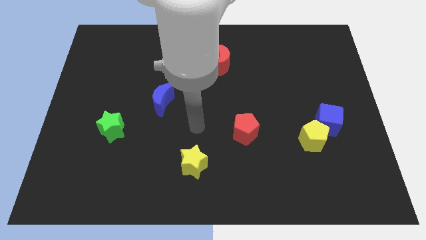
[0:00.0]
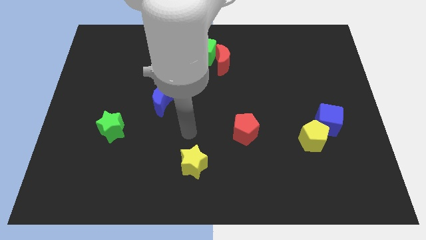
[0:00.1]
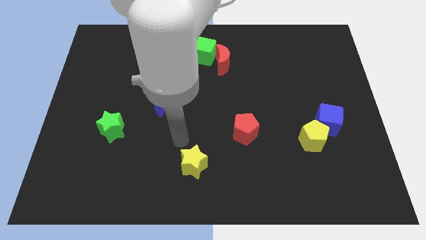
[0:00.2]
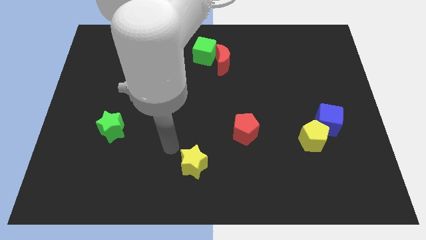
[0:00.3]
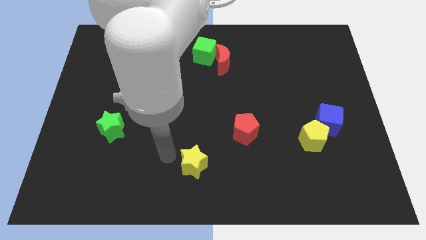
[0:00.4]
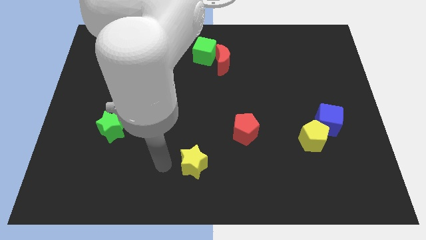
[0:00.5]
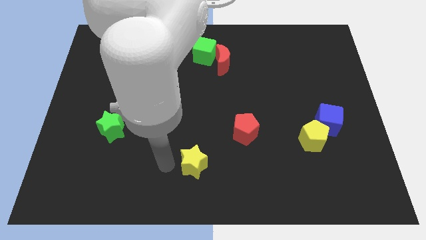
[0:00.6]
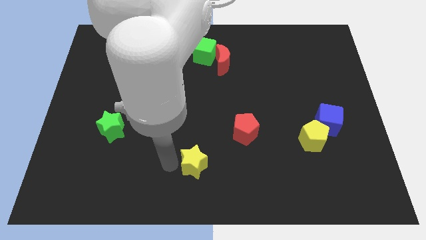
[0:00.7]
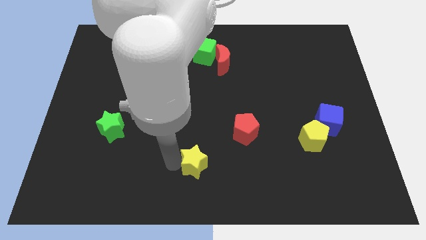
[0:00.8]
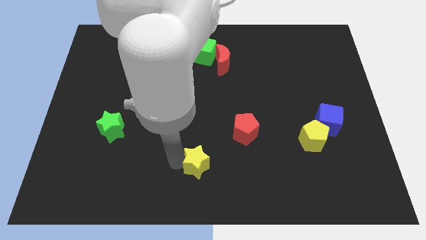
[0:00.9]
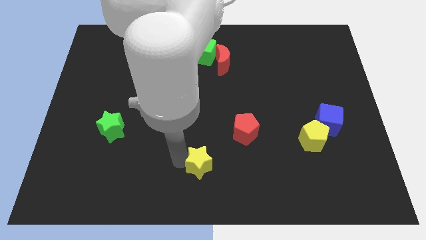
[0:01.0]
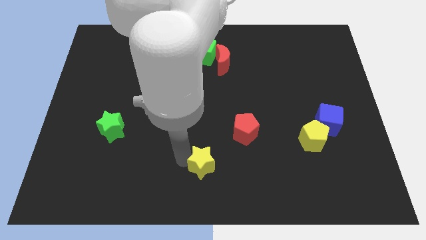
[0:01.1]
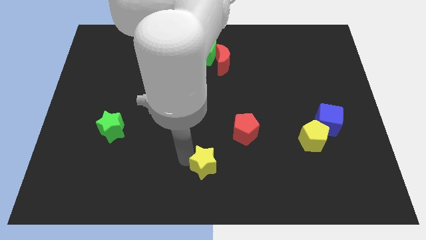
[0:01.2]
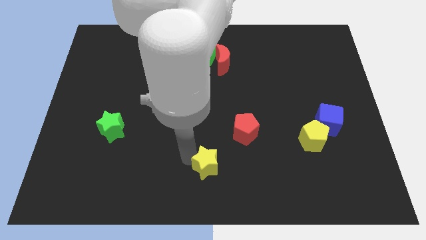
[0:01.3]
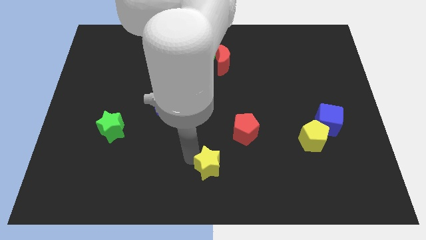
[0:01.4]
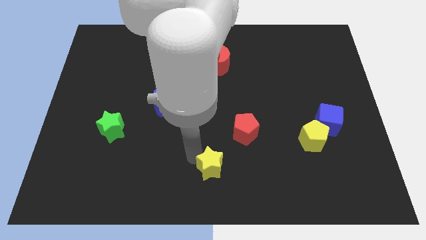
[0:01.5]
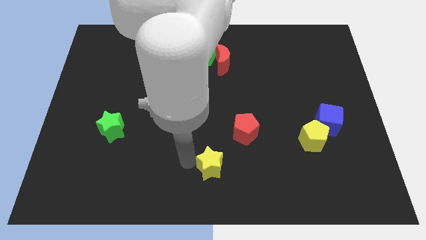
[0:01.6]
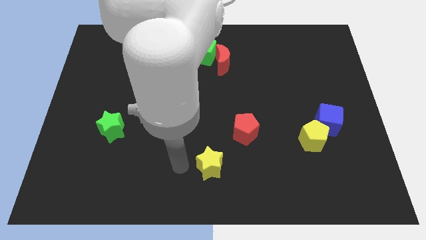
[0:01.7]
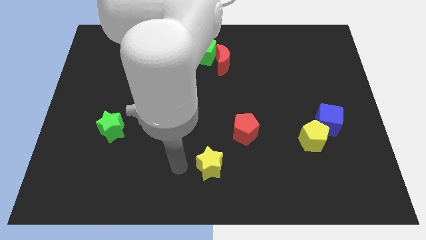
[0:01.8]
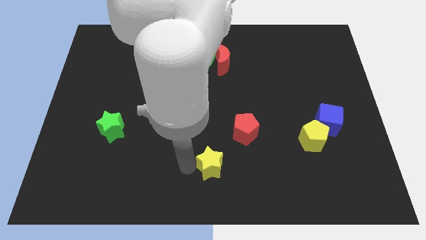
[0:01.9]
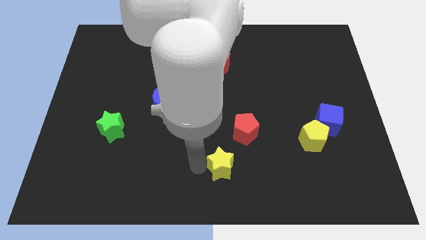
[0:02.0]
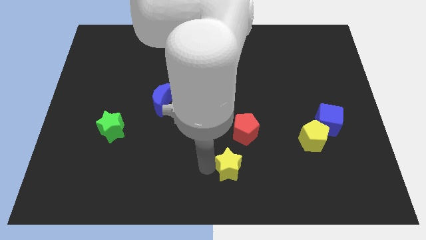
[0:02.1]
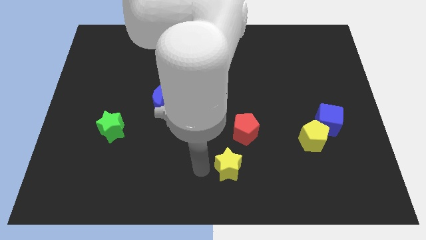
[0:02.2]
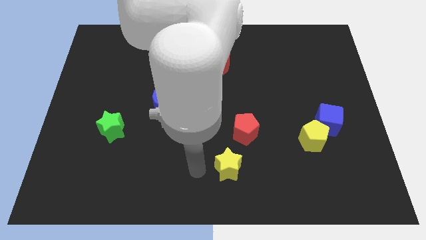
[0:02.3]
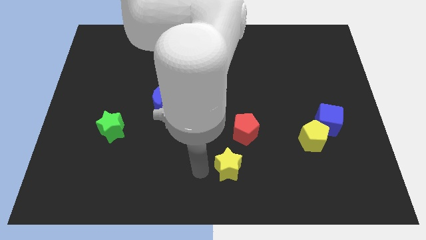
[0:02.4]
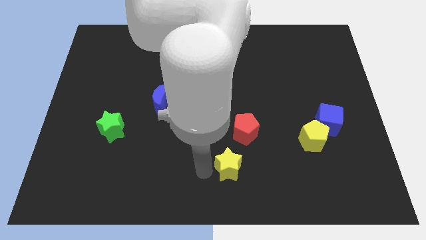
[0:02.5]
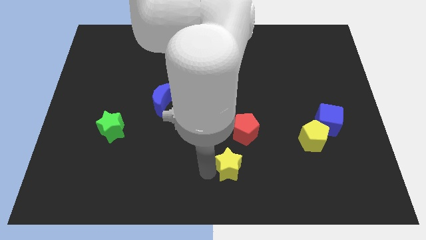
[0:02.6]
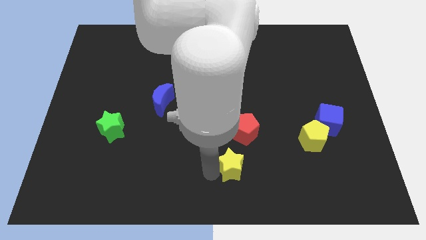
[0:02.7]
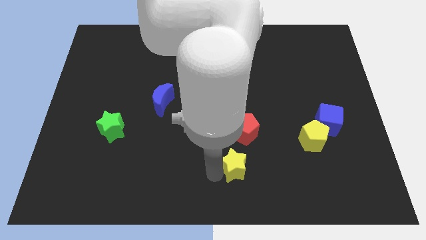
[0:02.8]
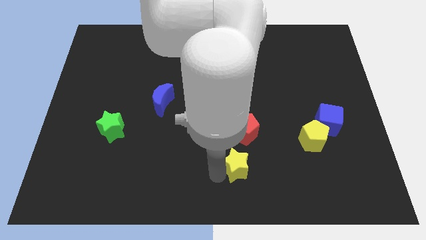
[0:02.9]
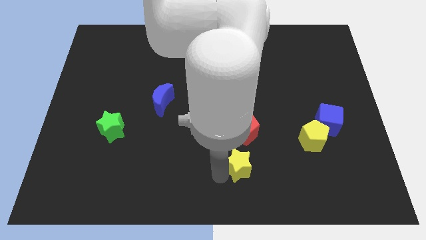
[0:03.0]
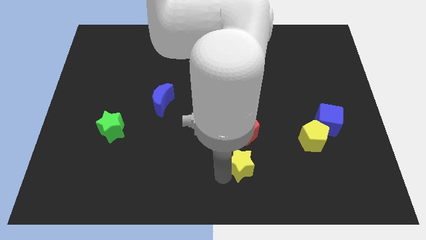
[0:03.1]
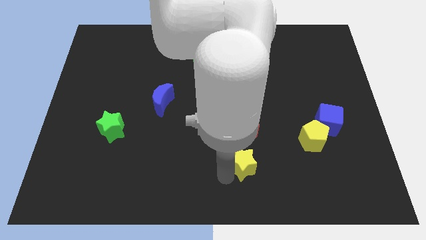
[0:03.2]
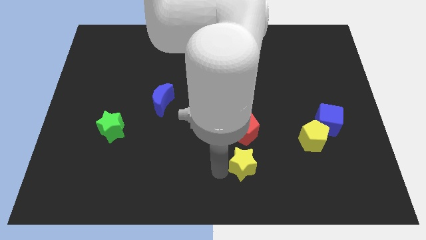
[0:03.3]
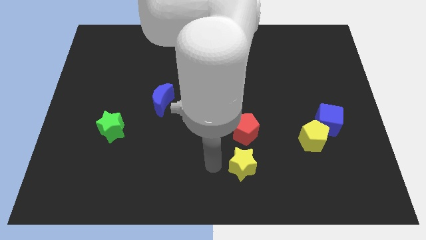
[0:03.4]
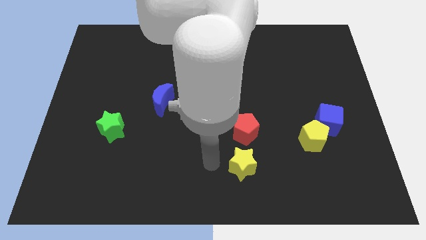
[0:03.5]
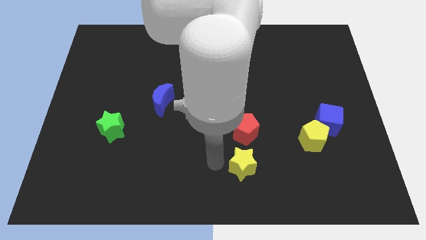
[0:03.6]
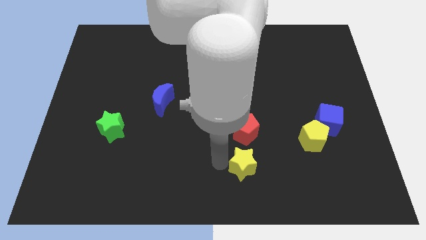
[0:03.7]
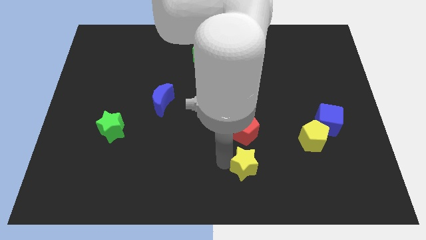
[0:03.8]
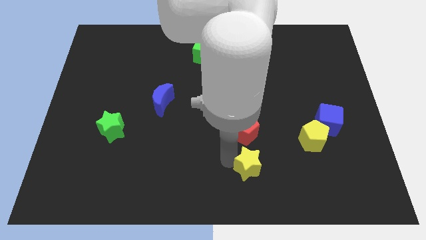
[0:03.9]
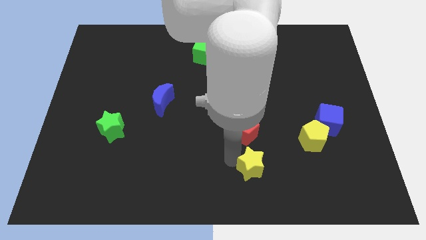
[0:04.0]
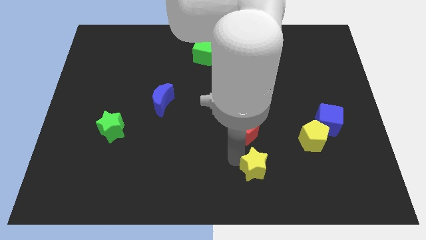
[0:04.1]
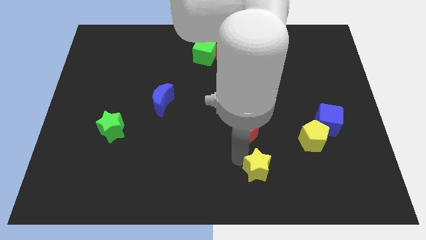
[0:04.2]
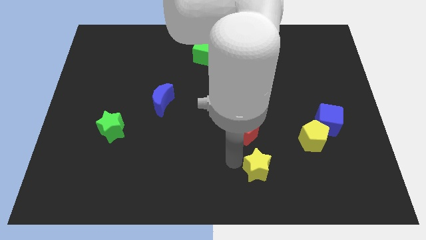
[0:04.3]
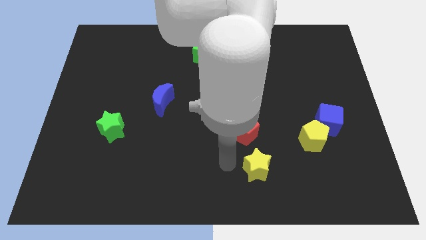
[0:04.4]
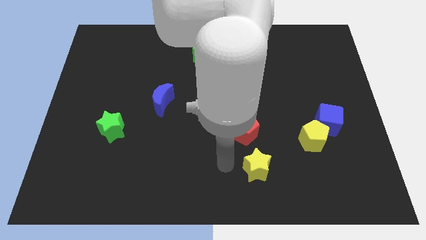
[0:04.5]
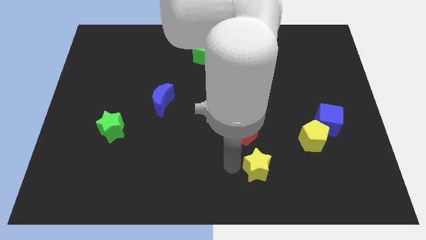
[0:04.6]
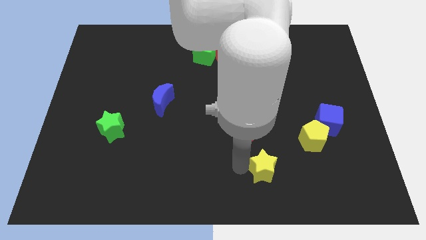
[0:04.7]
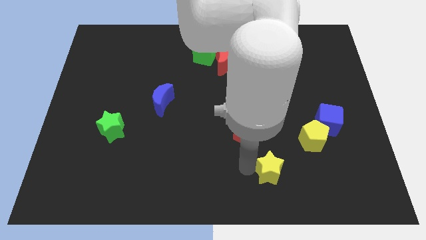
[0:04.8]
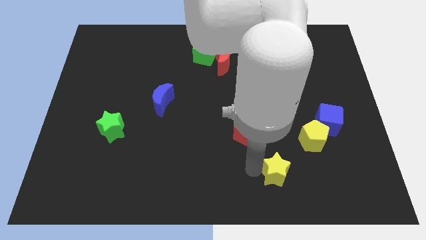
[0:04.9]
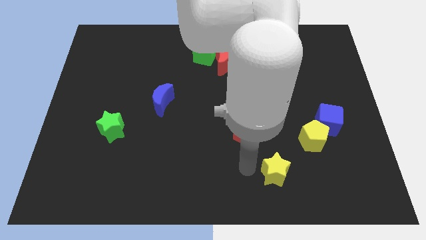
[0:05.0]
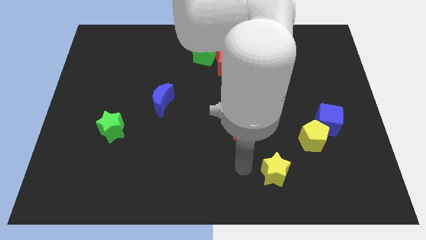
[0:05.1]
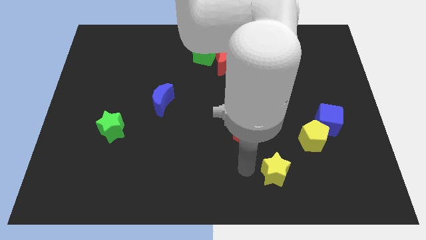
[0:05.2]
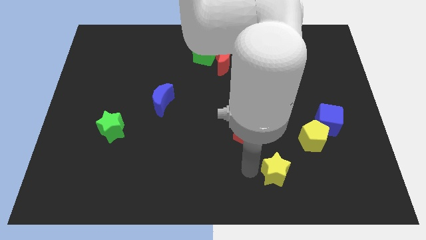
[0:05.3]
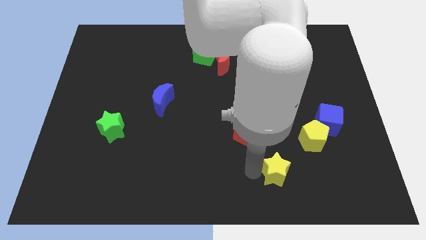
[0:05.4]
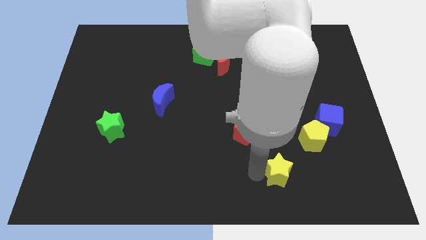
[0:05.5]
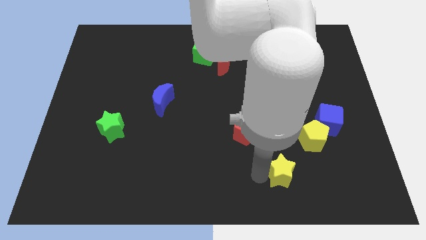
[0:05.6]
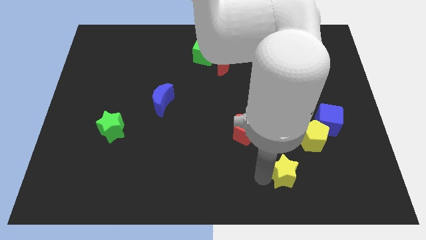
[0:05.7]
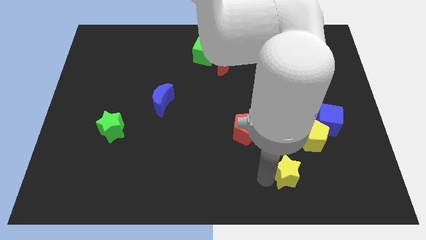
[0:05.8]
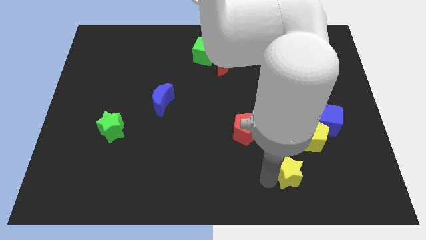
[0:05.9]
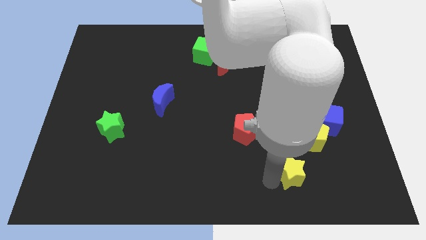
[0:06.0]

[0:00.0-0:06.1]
slide the yellow star right

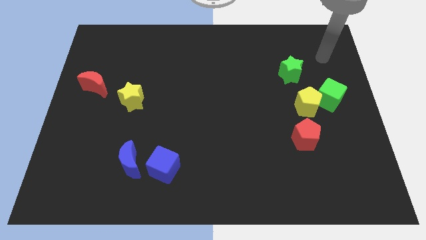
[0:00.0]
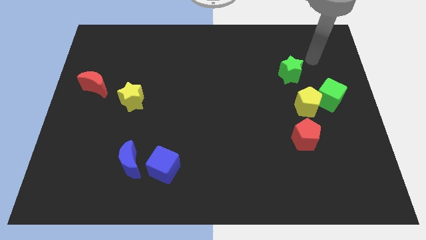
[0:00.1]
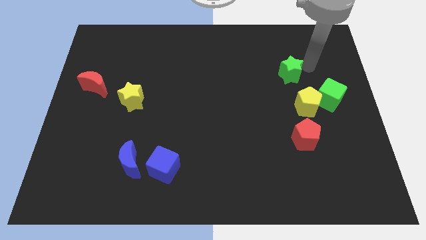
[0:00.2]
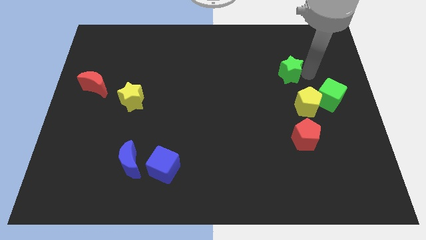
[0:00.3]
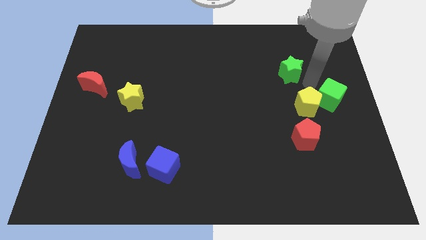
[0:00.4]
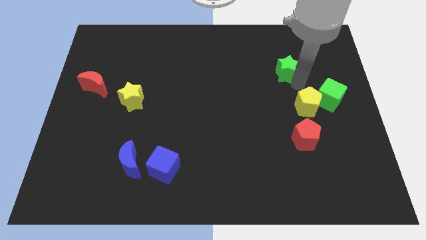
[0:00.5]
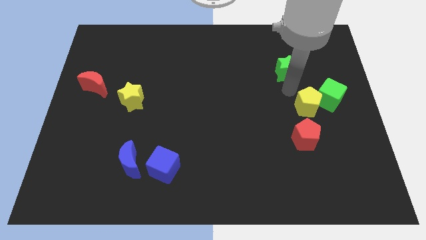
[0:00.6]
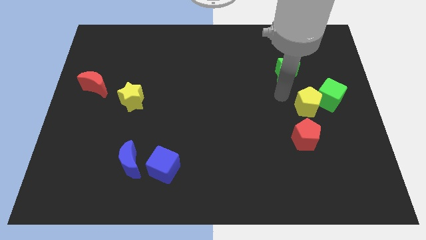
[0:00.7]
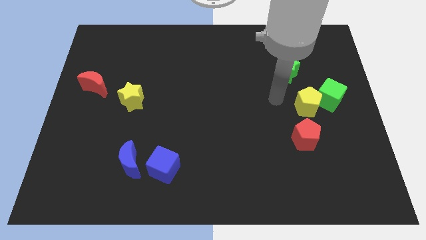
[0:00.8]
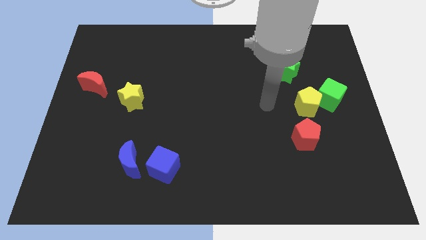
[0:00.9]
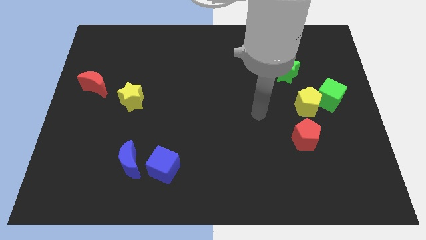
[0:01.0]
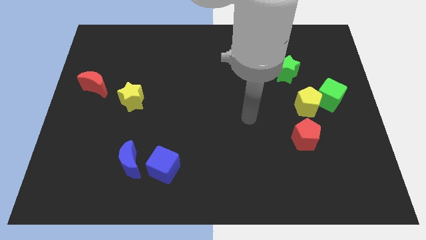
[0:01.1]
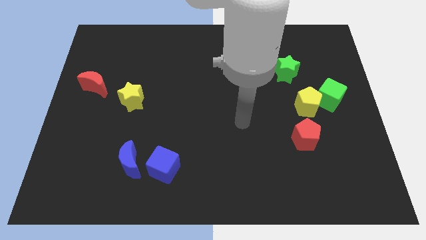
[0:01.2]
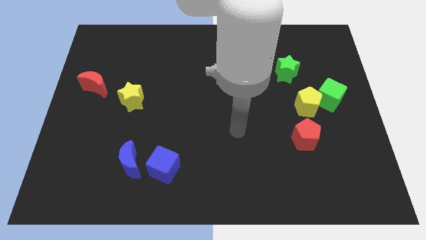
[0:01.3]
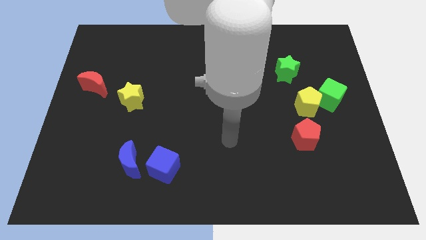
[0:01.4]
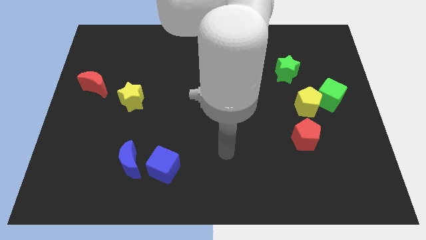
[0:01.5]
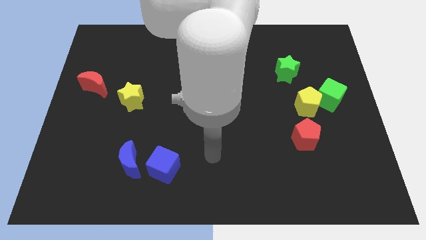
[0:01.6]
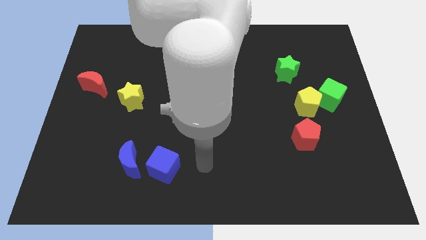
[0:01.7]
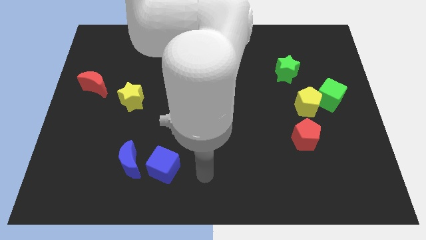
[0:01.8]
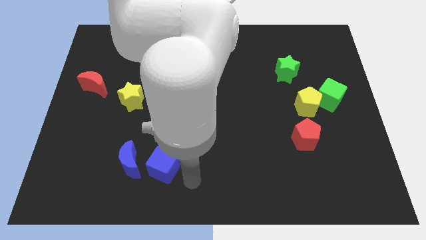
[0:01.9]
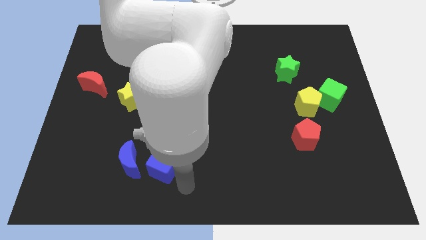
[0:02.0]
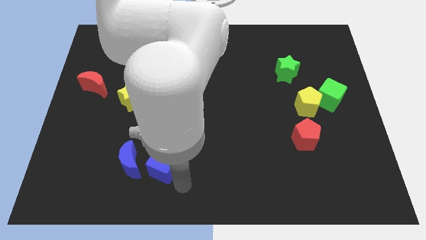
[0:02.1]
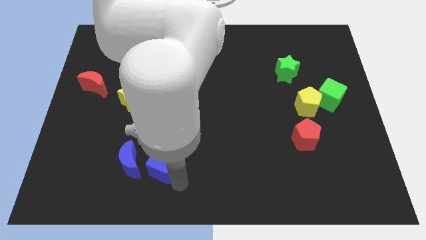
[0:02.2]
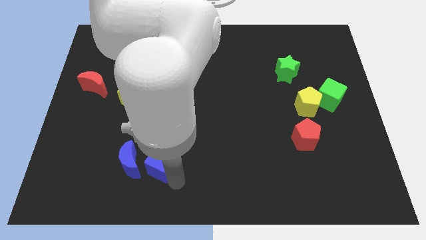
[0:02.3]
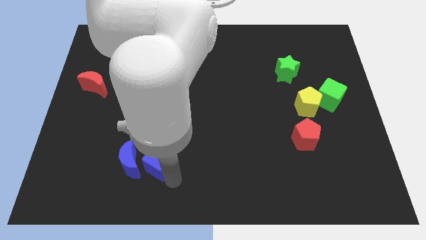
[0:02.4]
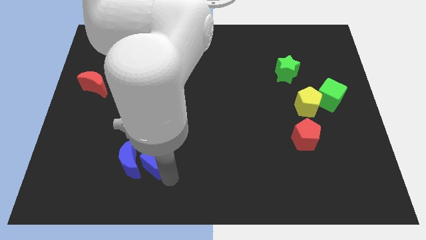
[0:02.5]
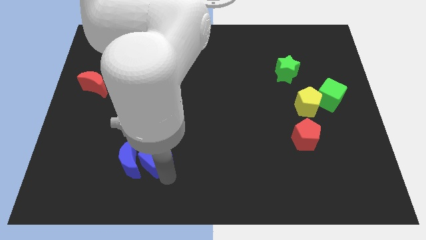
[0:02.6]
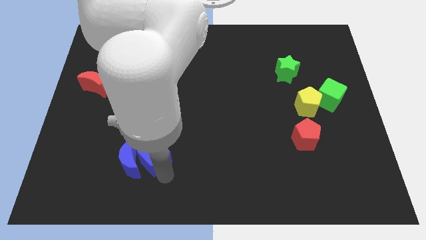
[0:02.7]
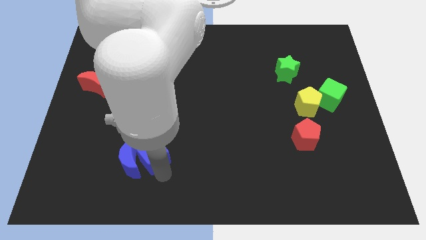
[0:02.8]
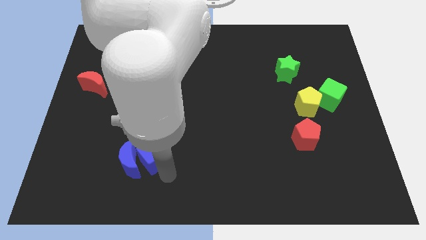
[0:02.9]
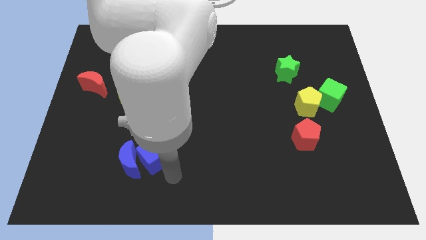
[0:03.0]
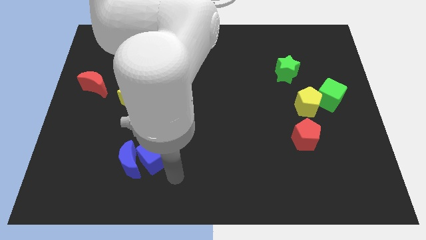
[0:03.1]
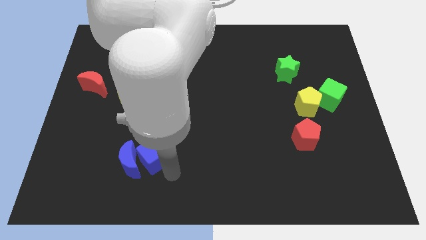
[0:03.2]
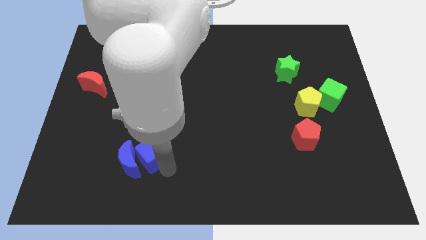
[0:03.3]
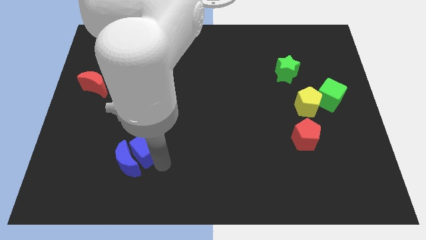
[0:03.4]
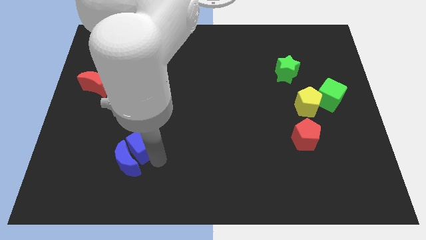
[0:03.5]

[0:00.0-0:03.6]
move the blue cube diagonally up and left somewhat
